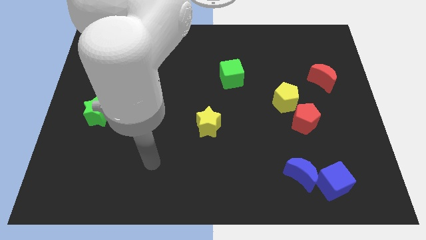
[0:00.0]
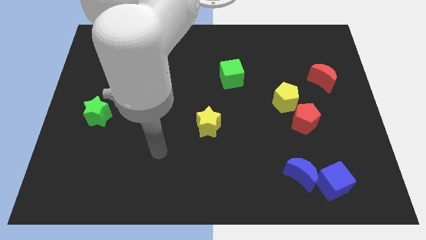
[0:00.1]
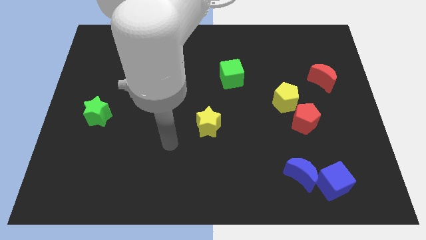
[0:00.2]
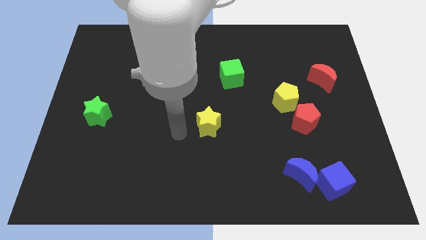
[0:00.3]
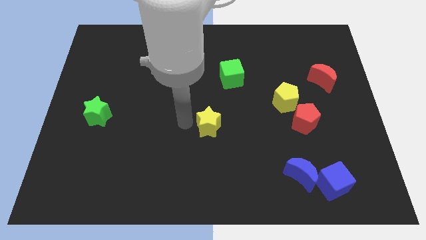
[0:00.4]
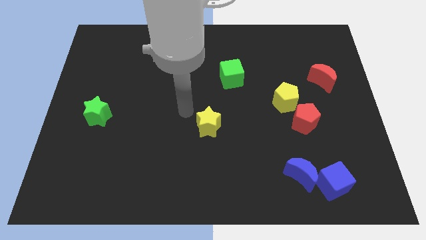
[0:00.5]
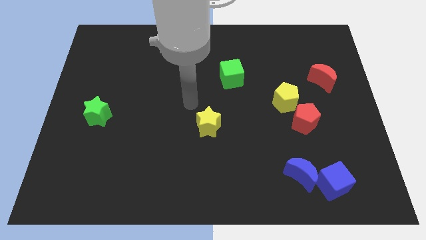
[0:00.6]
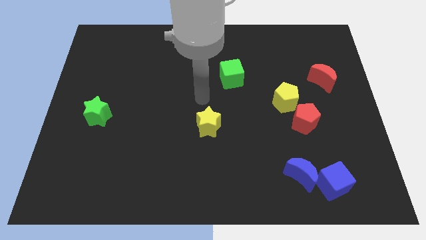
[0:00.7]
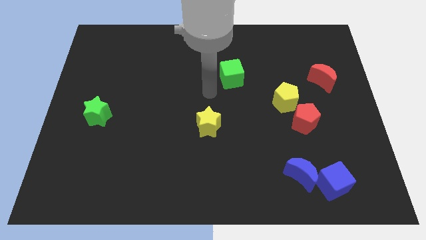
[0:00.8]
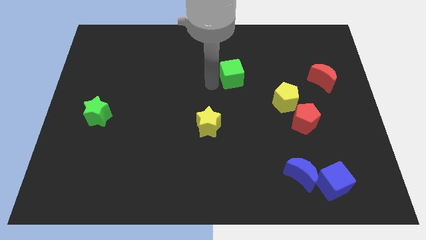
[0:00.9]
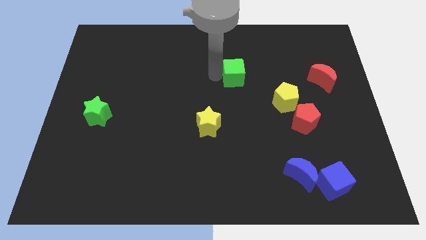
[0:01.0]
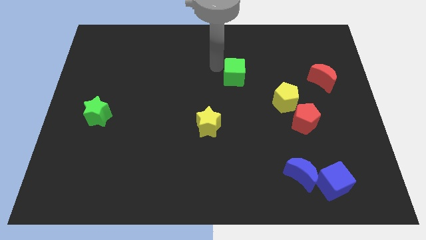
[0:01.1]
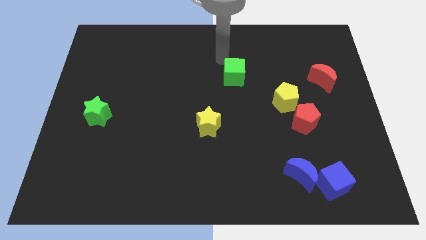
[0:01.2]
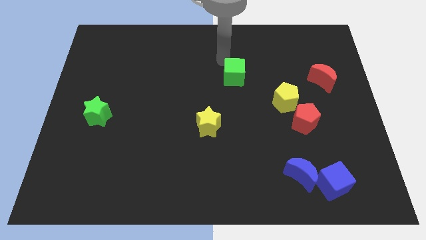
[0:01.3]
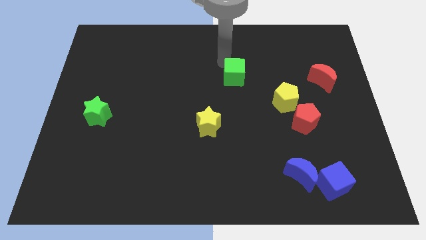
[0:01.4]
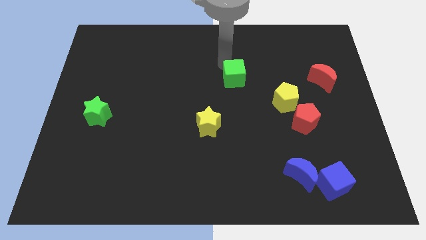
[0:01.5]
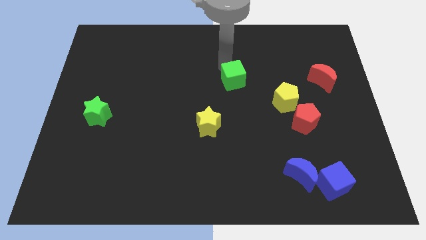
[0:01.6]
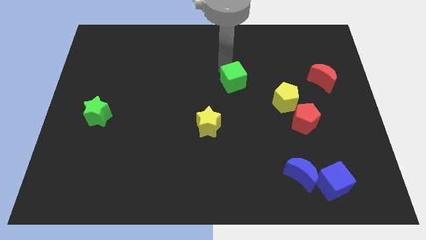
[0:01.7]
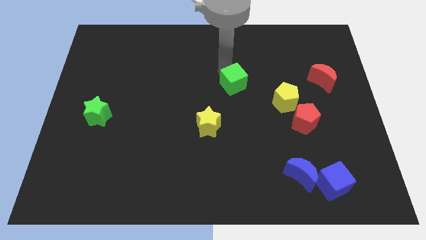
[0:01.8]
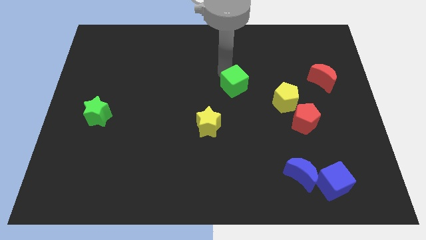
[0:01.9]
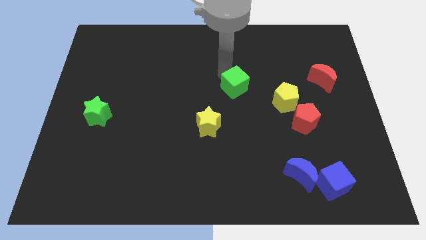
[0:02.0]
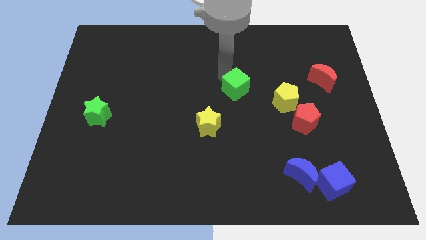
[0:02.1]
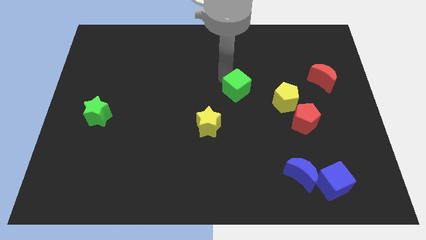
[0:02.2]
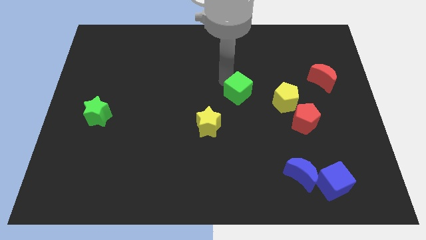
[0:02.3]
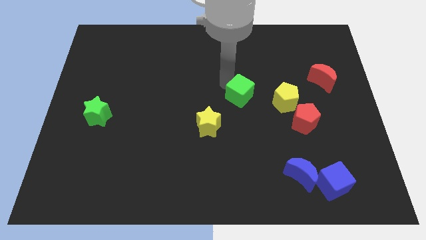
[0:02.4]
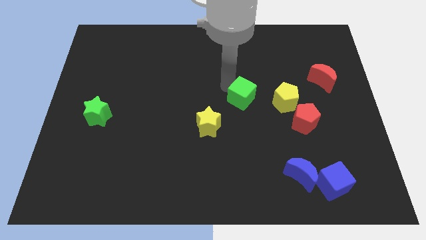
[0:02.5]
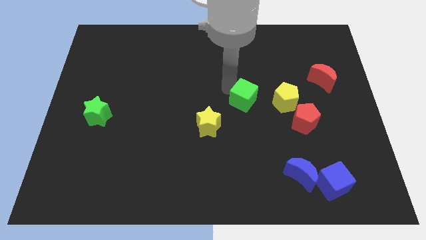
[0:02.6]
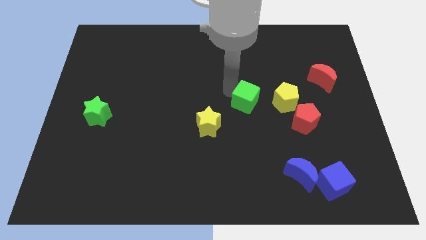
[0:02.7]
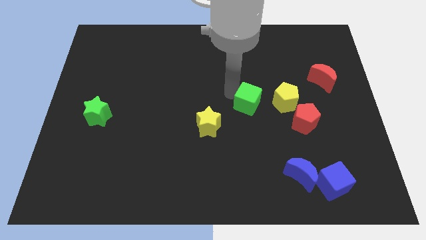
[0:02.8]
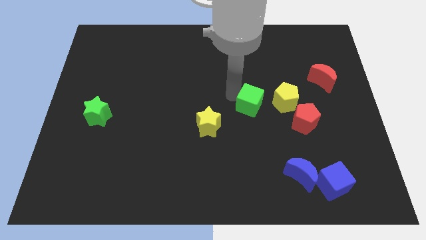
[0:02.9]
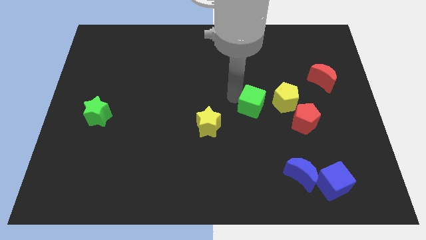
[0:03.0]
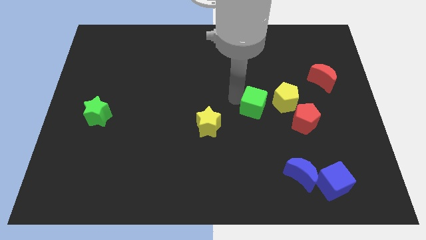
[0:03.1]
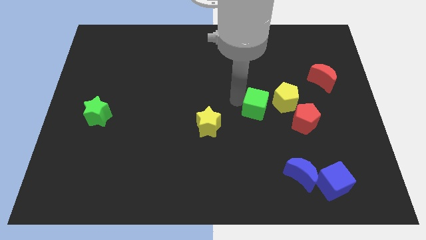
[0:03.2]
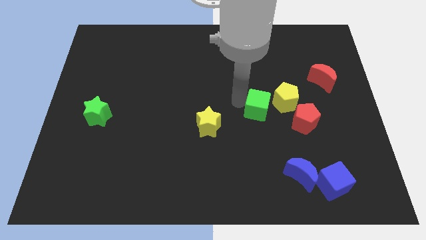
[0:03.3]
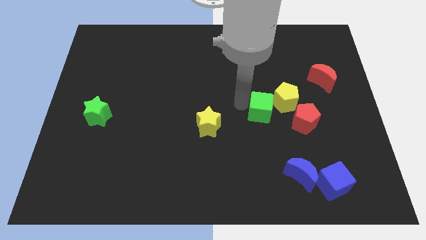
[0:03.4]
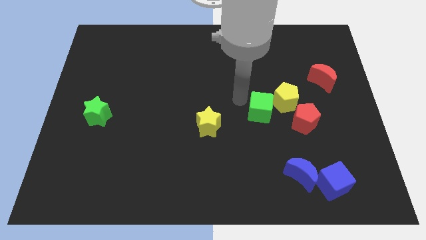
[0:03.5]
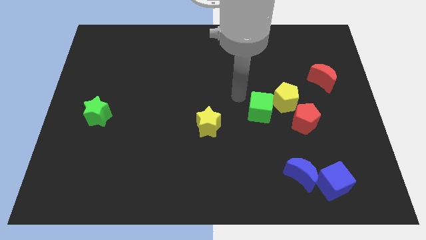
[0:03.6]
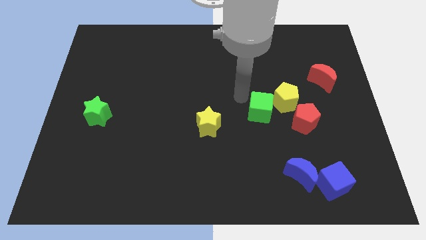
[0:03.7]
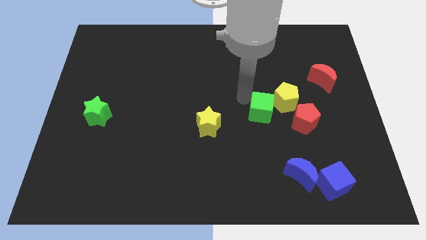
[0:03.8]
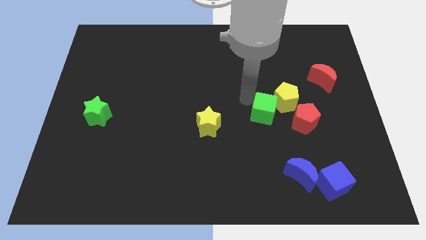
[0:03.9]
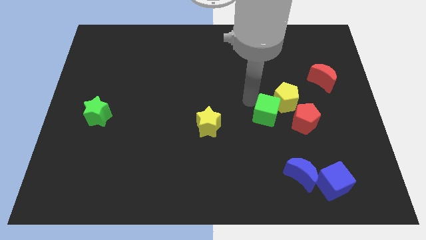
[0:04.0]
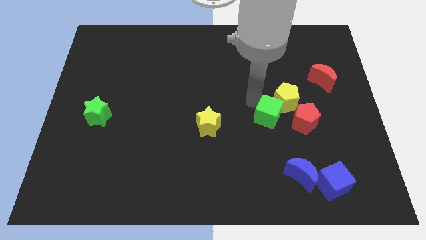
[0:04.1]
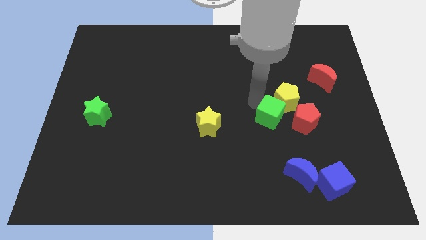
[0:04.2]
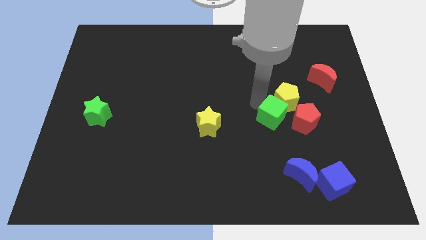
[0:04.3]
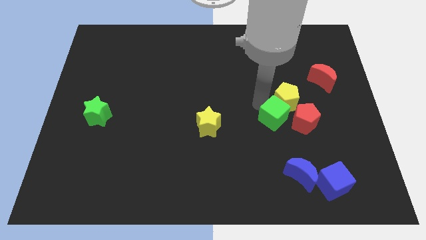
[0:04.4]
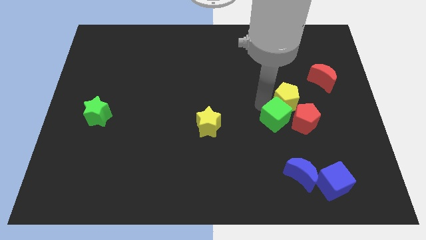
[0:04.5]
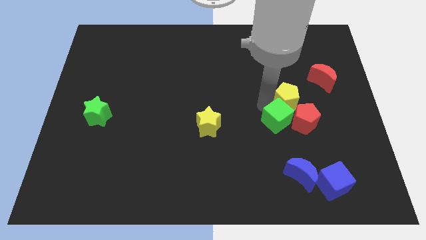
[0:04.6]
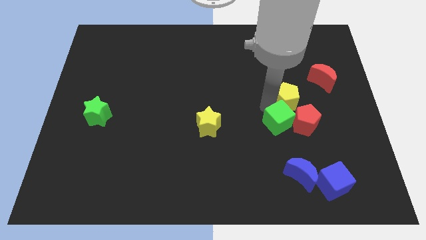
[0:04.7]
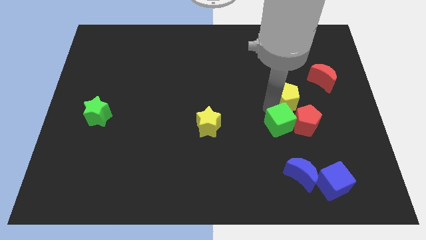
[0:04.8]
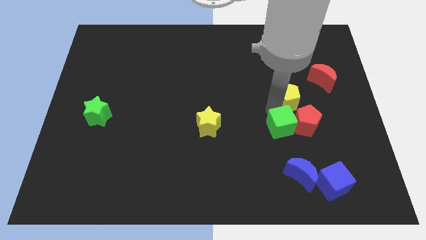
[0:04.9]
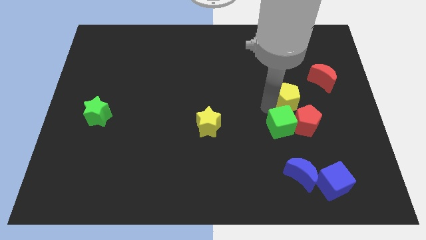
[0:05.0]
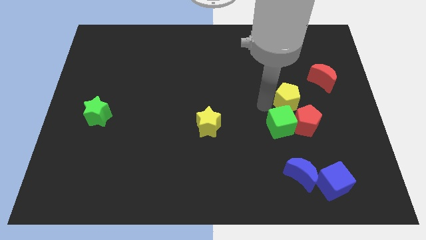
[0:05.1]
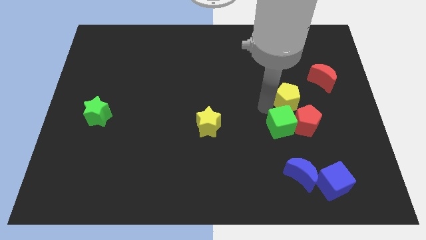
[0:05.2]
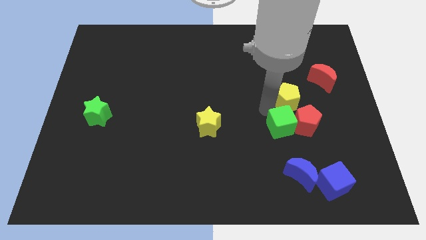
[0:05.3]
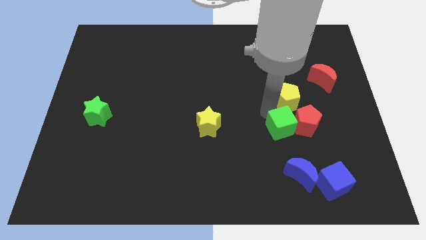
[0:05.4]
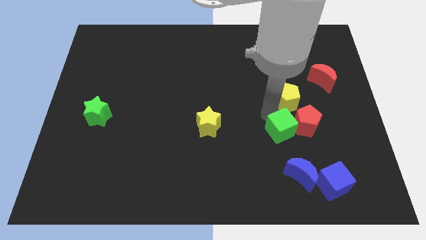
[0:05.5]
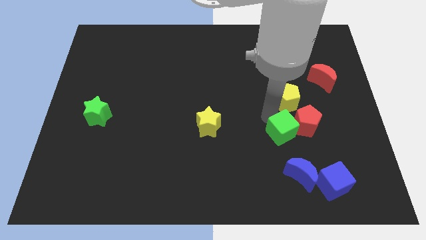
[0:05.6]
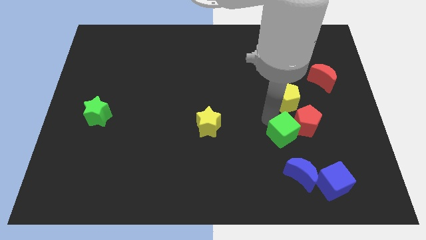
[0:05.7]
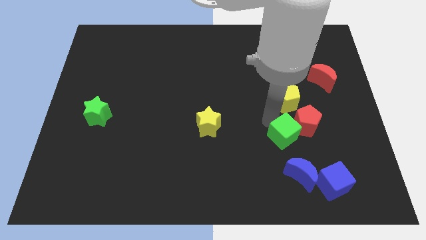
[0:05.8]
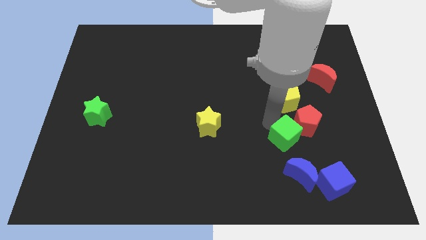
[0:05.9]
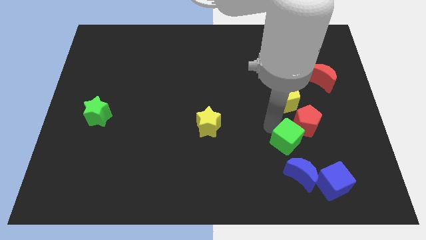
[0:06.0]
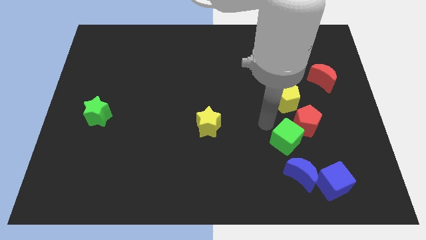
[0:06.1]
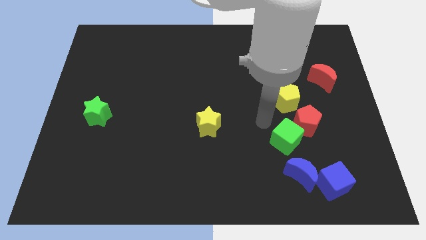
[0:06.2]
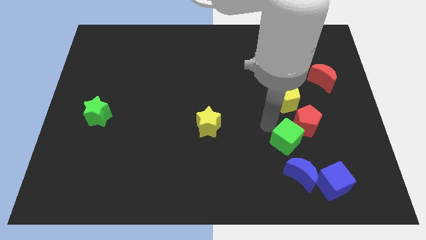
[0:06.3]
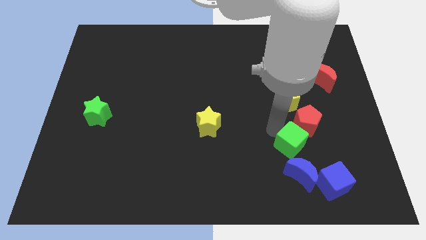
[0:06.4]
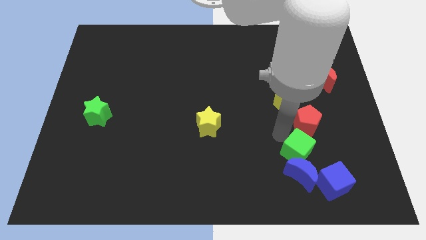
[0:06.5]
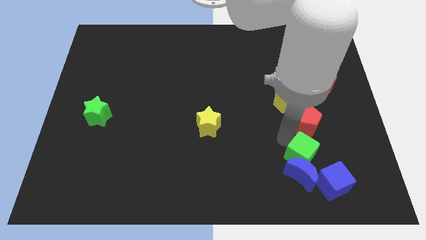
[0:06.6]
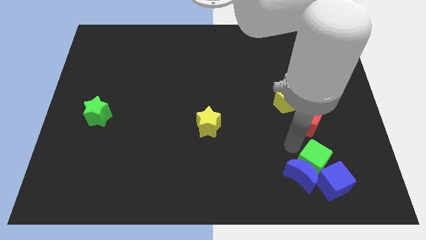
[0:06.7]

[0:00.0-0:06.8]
slide the green cube towards the blue cube

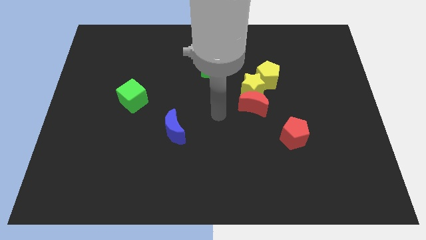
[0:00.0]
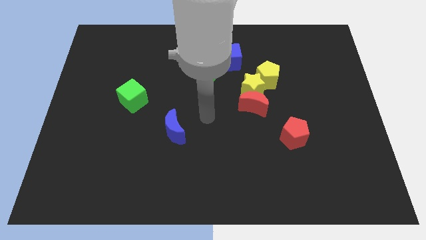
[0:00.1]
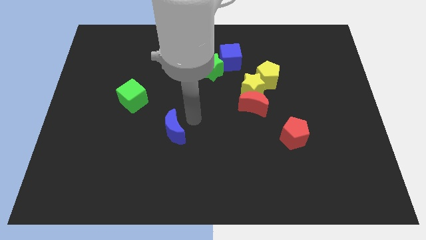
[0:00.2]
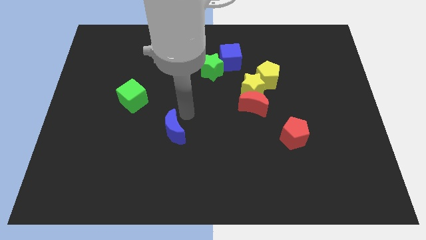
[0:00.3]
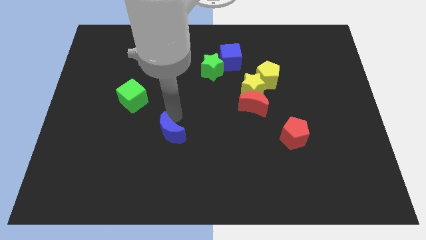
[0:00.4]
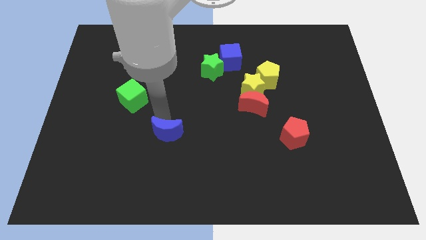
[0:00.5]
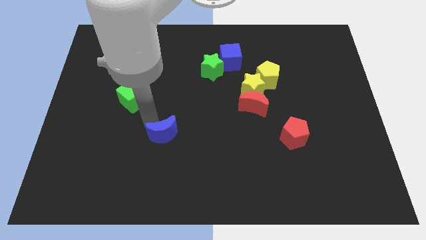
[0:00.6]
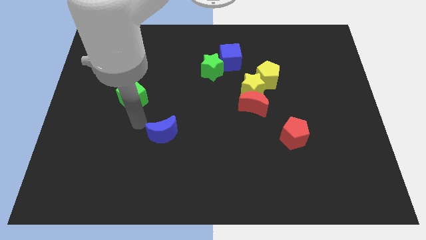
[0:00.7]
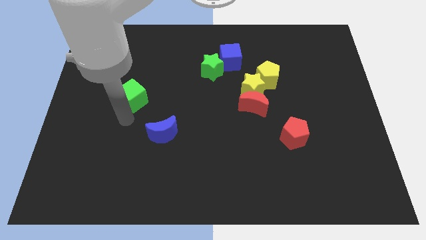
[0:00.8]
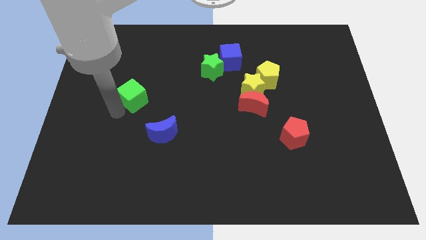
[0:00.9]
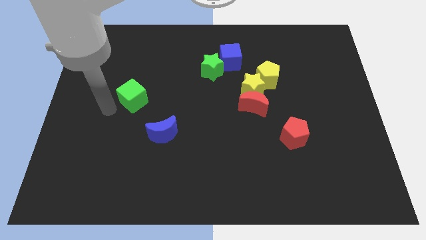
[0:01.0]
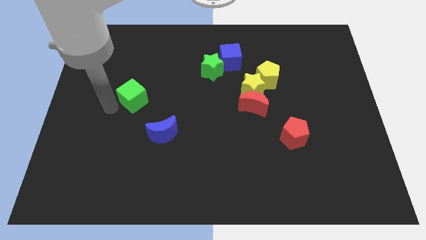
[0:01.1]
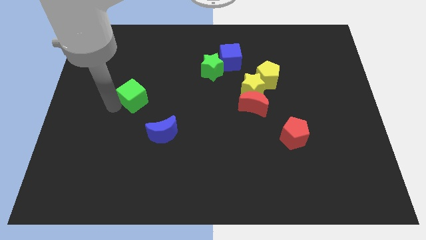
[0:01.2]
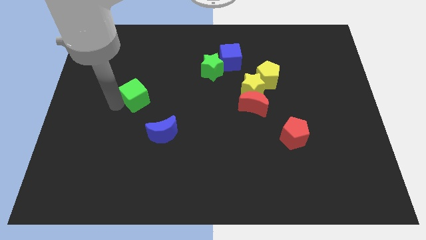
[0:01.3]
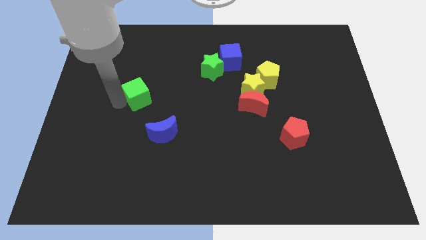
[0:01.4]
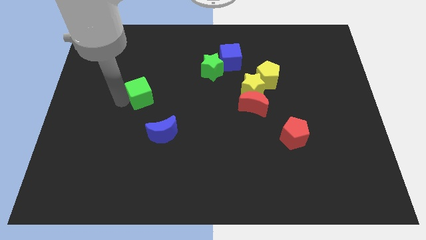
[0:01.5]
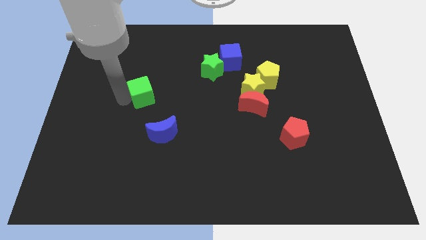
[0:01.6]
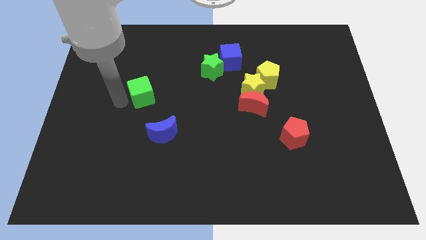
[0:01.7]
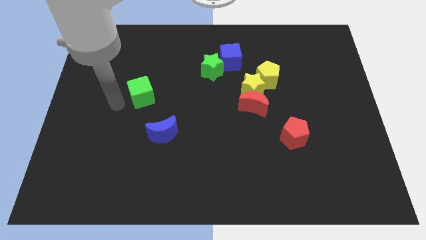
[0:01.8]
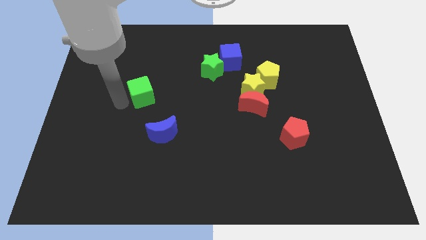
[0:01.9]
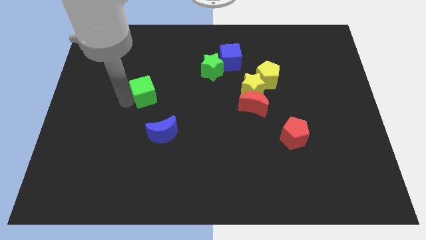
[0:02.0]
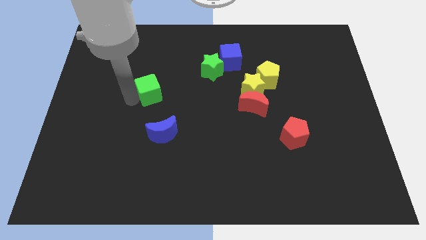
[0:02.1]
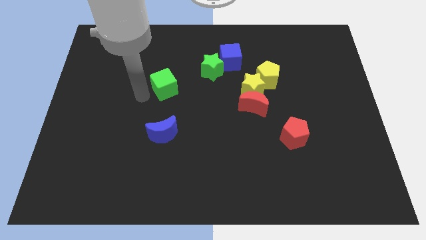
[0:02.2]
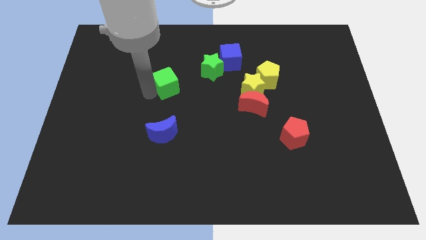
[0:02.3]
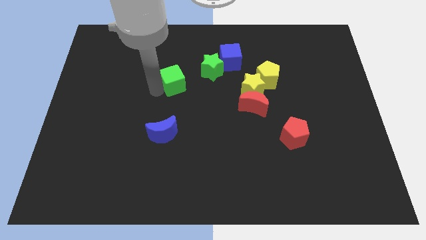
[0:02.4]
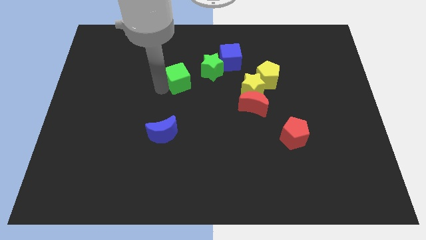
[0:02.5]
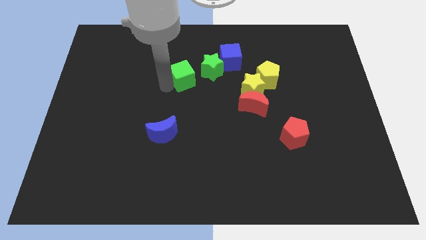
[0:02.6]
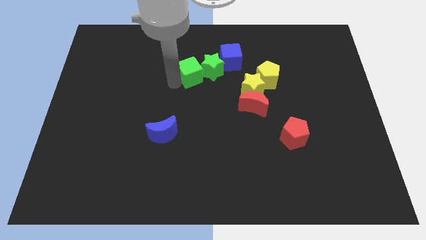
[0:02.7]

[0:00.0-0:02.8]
push the green cube towards the green star
